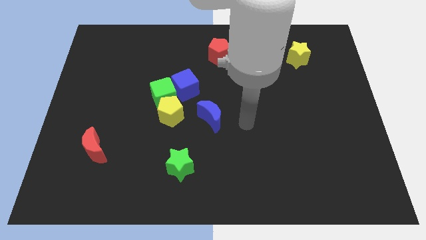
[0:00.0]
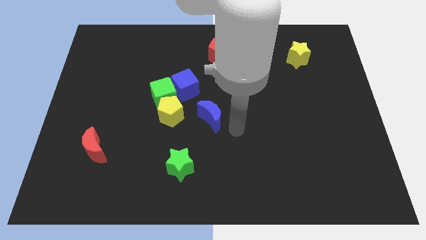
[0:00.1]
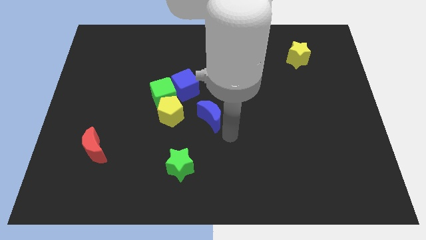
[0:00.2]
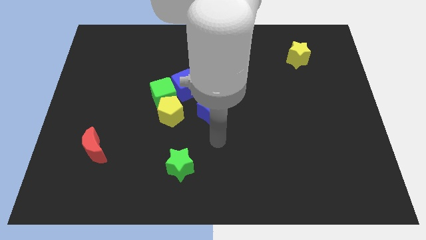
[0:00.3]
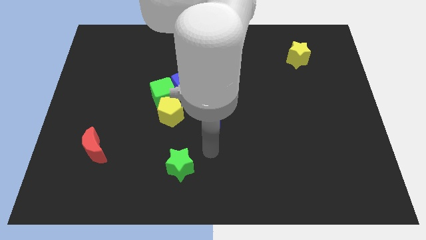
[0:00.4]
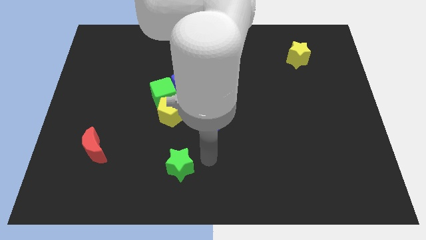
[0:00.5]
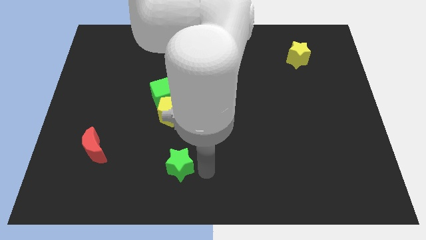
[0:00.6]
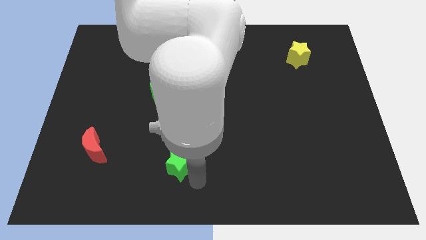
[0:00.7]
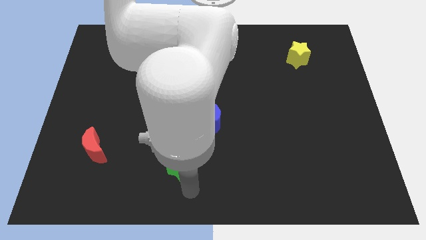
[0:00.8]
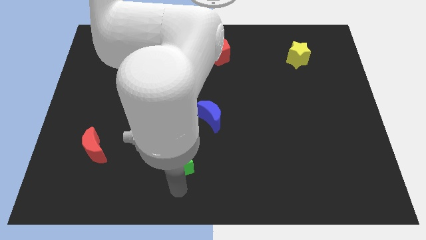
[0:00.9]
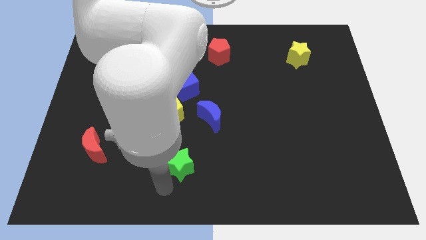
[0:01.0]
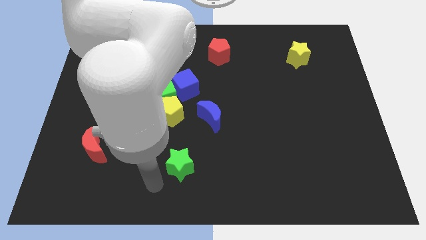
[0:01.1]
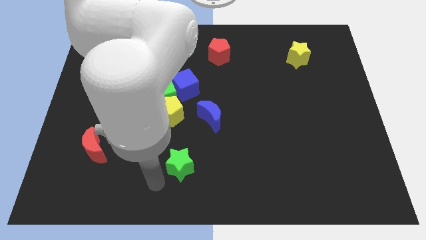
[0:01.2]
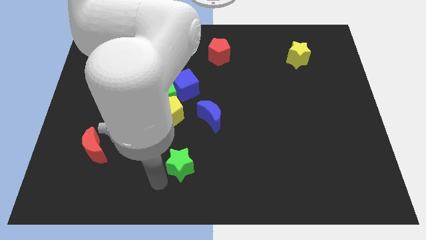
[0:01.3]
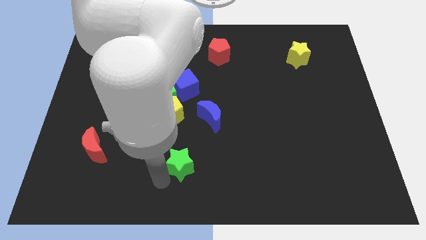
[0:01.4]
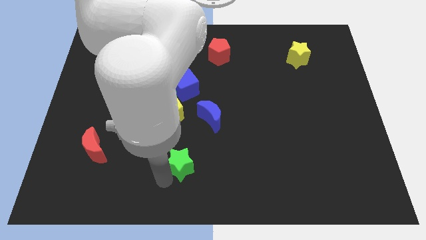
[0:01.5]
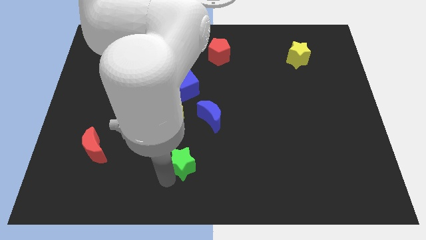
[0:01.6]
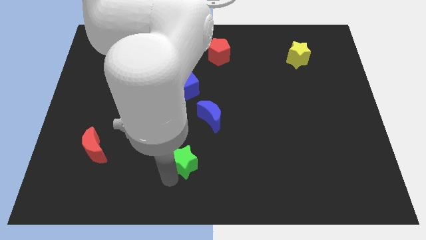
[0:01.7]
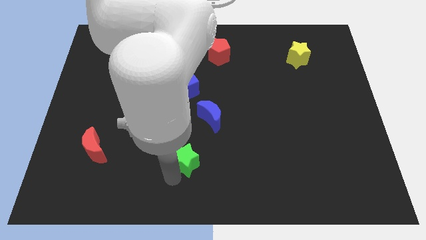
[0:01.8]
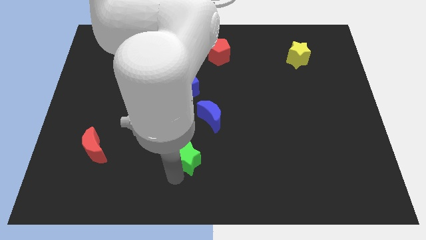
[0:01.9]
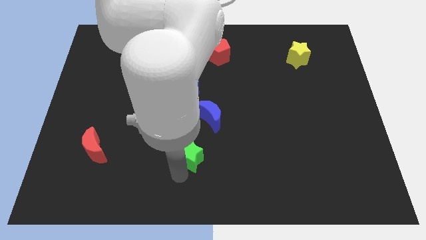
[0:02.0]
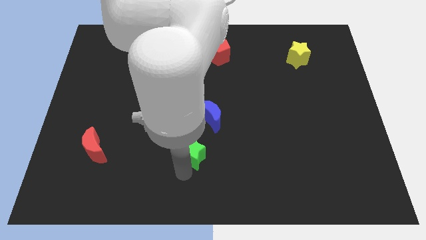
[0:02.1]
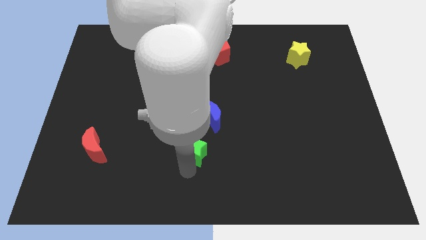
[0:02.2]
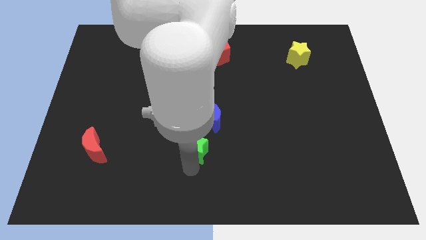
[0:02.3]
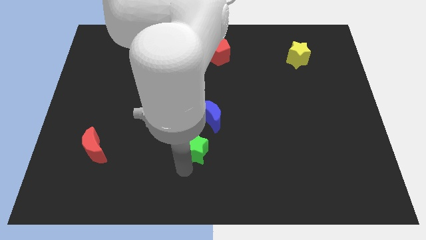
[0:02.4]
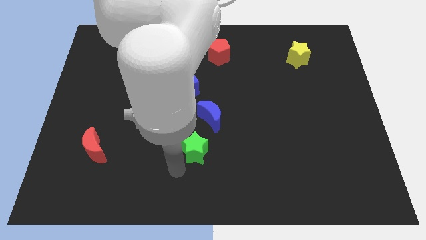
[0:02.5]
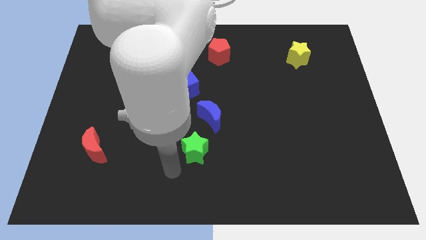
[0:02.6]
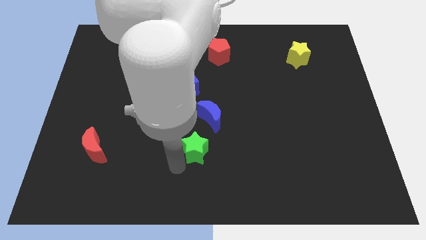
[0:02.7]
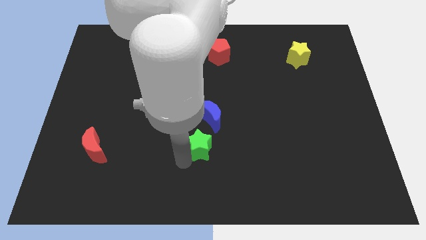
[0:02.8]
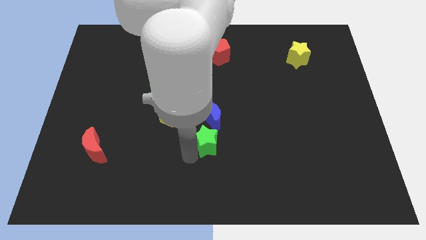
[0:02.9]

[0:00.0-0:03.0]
slightly move the green star diagonally up and to the right

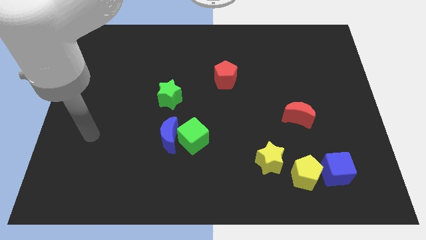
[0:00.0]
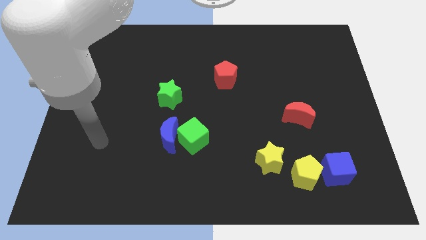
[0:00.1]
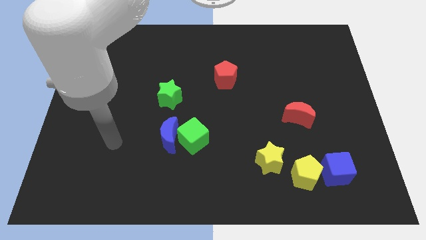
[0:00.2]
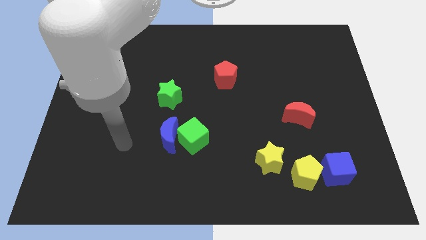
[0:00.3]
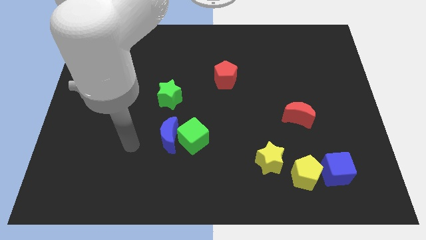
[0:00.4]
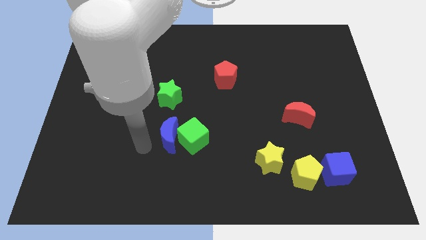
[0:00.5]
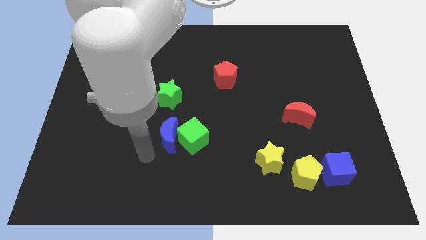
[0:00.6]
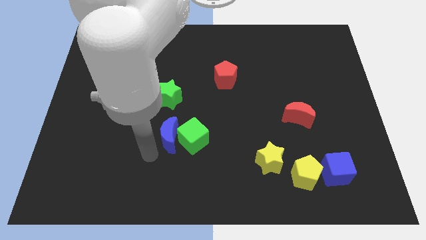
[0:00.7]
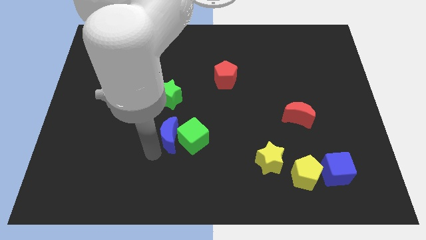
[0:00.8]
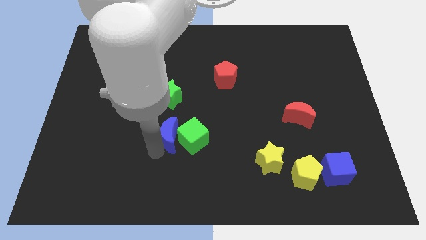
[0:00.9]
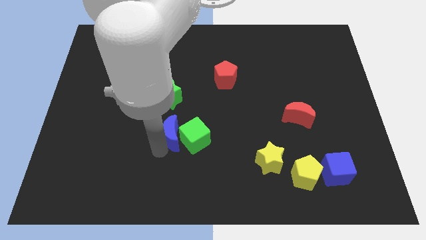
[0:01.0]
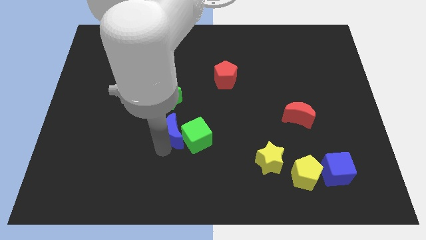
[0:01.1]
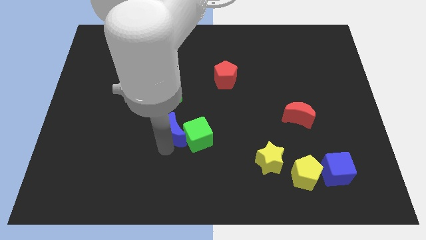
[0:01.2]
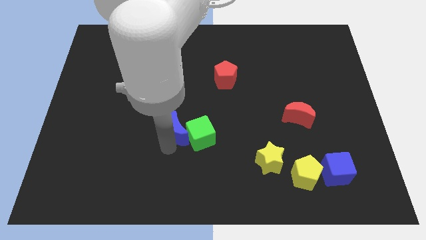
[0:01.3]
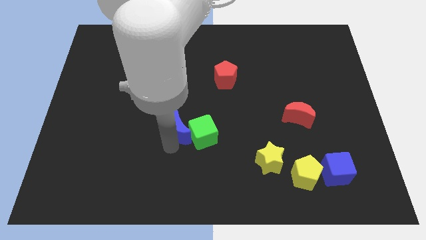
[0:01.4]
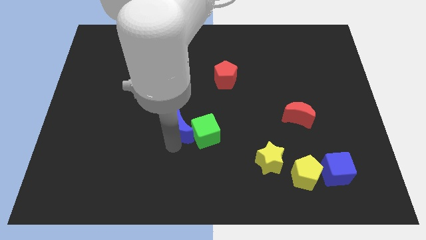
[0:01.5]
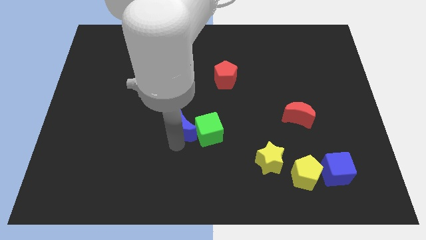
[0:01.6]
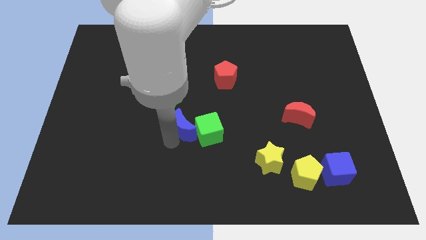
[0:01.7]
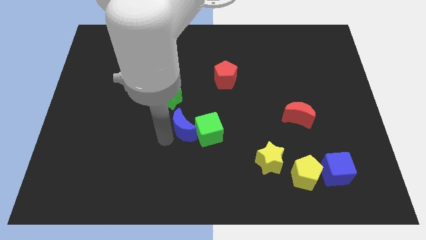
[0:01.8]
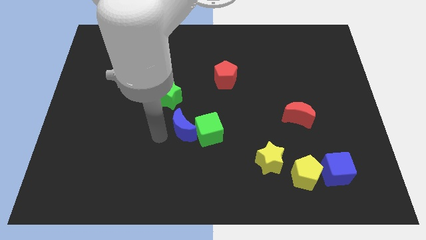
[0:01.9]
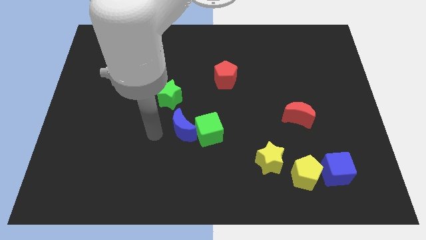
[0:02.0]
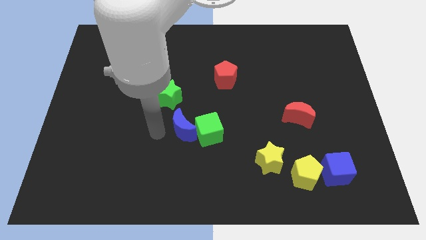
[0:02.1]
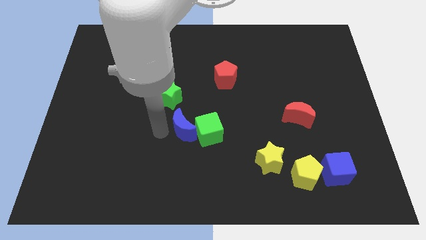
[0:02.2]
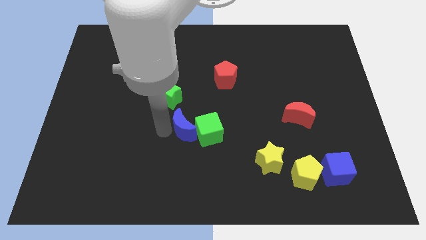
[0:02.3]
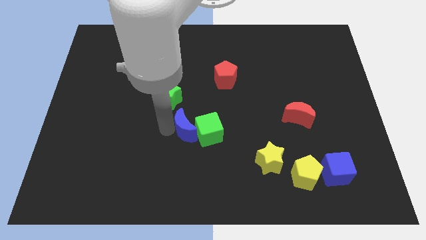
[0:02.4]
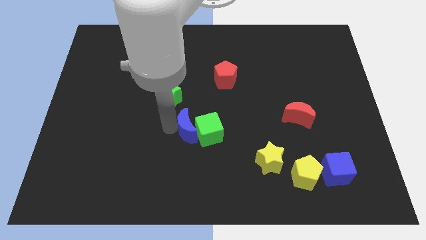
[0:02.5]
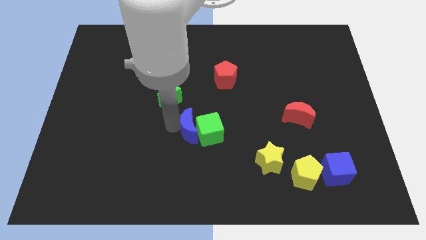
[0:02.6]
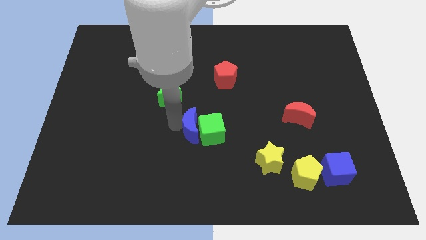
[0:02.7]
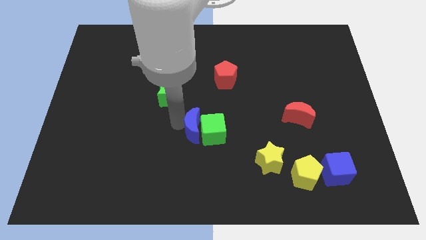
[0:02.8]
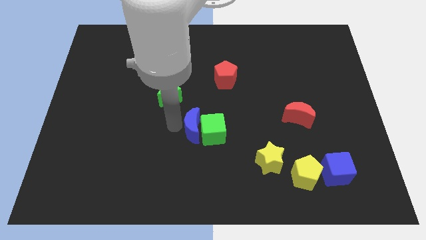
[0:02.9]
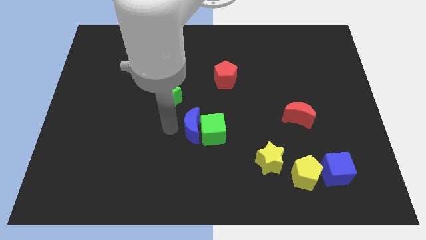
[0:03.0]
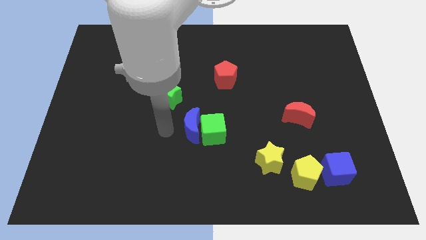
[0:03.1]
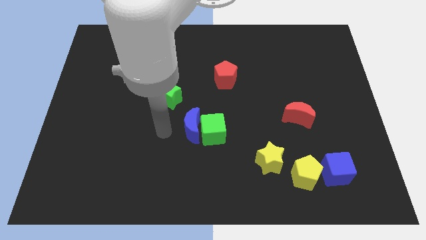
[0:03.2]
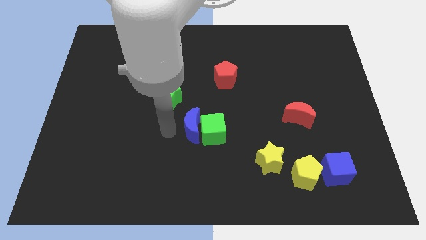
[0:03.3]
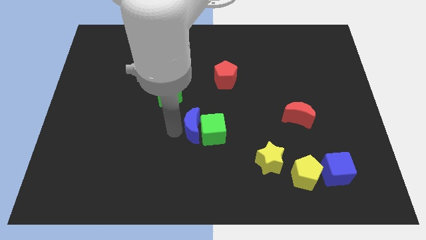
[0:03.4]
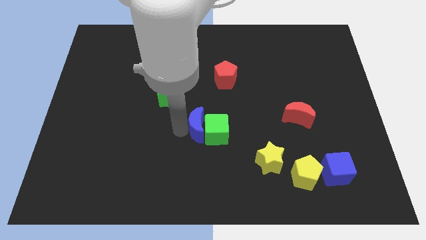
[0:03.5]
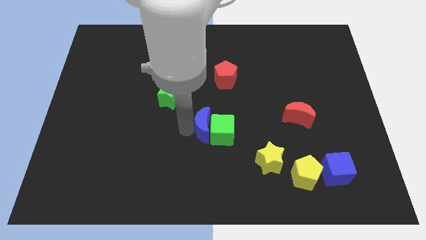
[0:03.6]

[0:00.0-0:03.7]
push the blue moon a bit to the right

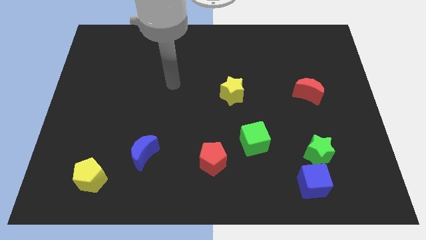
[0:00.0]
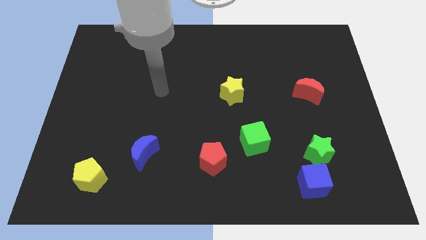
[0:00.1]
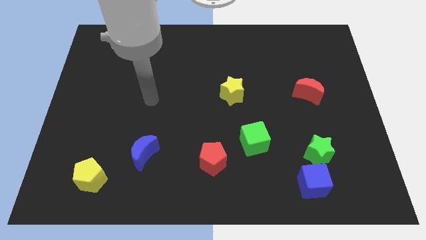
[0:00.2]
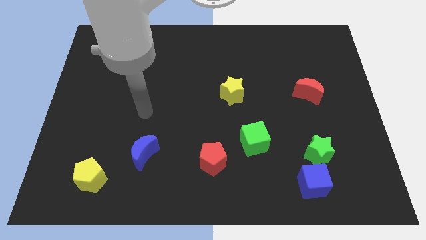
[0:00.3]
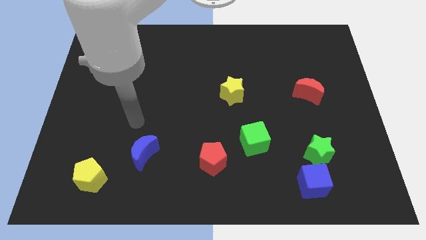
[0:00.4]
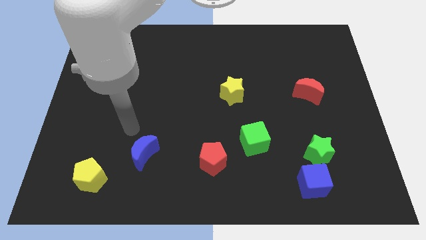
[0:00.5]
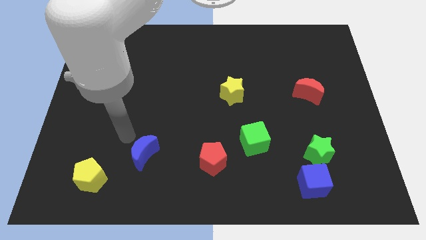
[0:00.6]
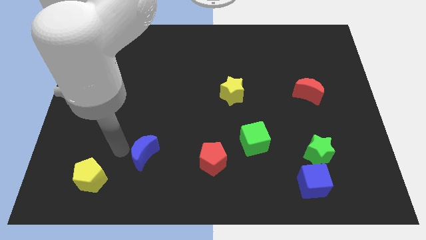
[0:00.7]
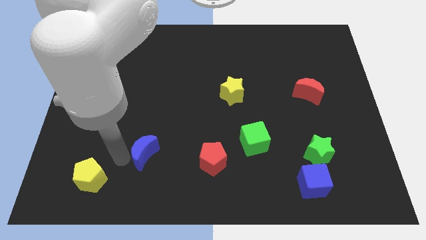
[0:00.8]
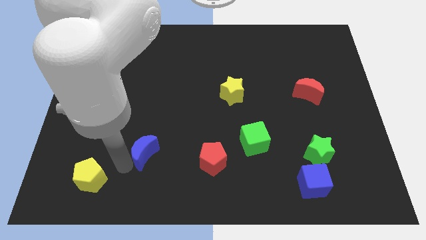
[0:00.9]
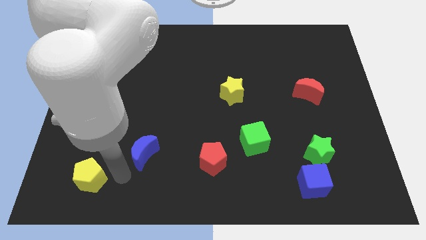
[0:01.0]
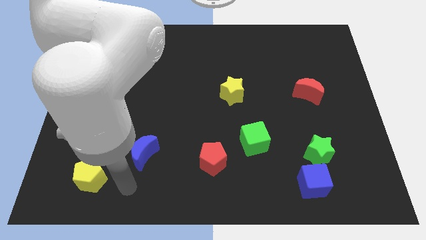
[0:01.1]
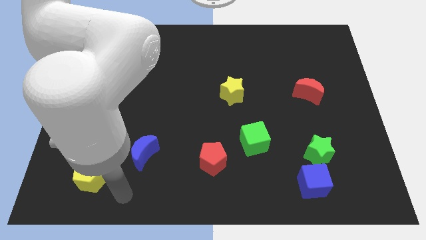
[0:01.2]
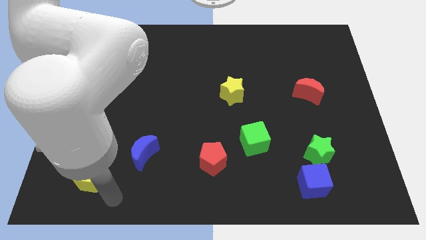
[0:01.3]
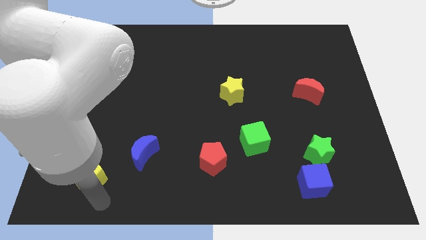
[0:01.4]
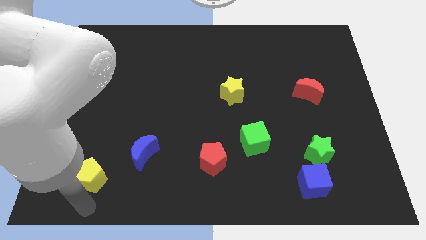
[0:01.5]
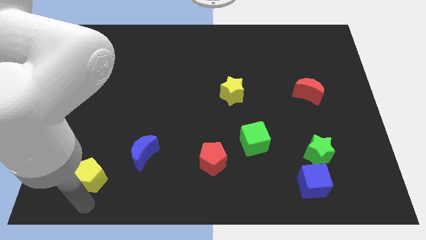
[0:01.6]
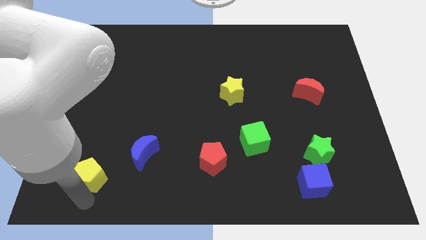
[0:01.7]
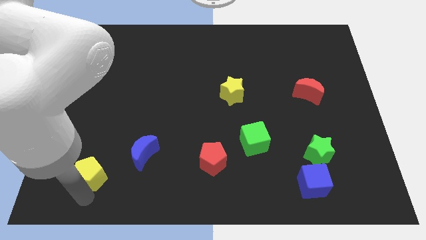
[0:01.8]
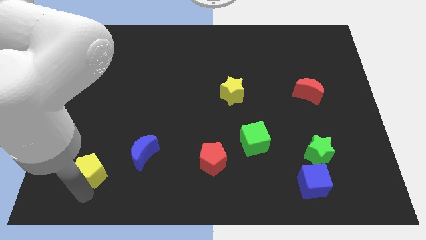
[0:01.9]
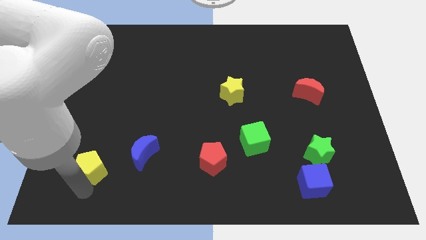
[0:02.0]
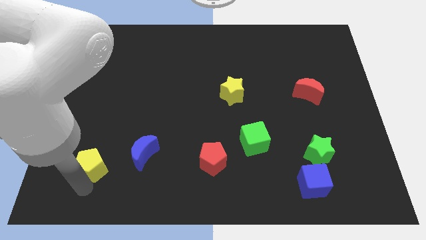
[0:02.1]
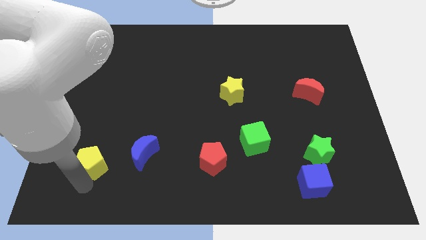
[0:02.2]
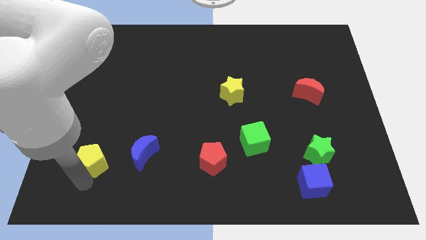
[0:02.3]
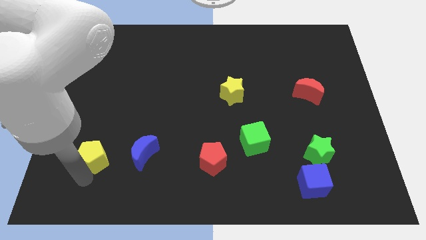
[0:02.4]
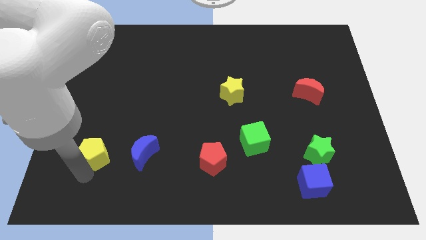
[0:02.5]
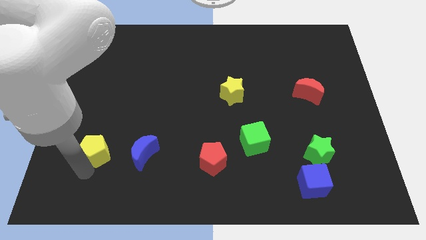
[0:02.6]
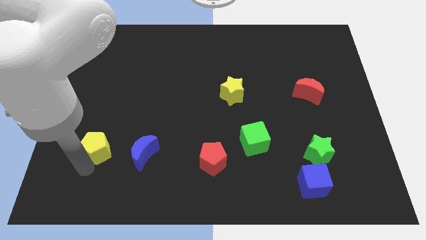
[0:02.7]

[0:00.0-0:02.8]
slightly push the yellow pentagon upwards
